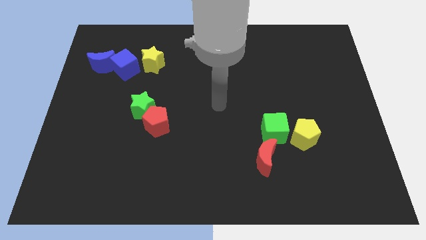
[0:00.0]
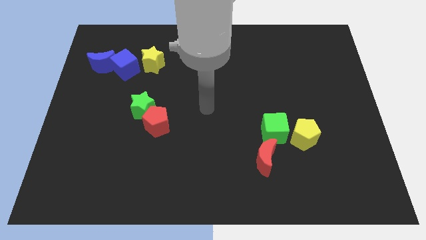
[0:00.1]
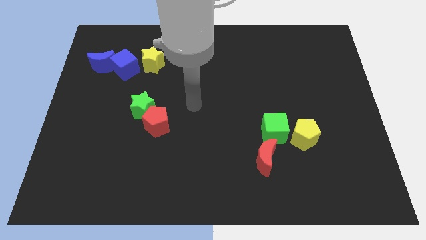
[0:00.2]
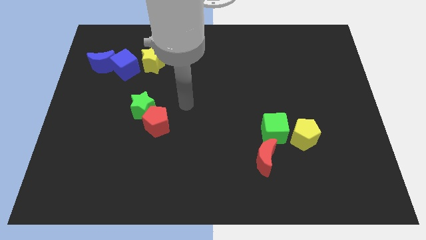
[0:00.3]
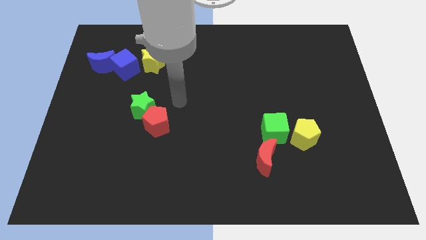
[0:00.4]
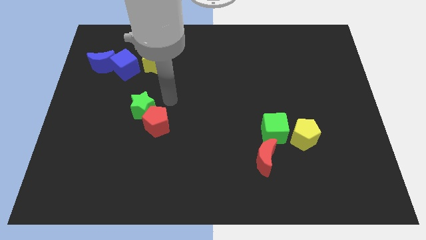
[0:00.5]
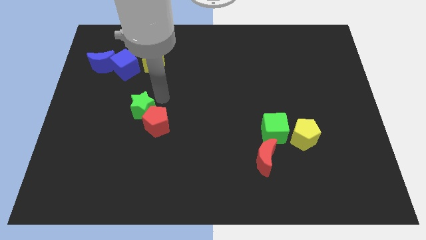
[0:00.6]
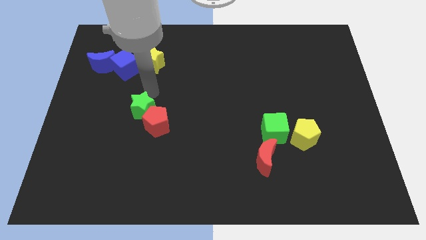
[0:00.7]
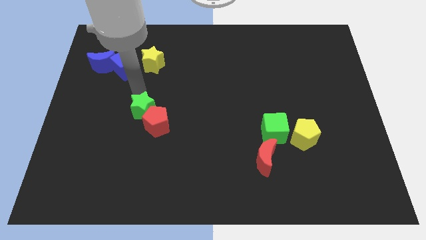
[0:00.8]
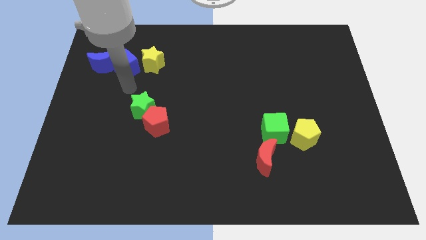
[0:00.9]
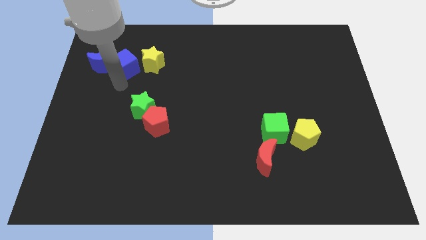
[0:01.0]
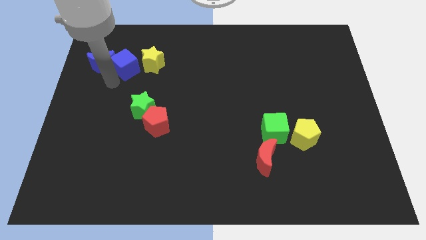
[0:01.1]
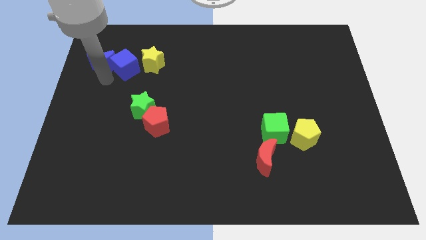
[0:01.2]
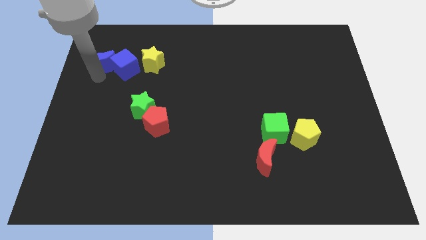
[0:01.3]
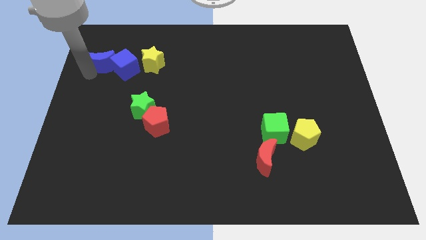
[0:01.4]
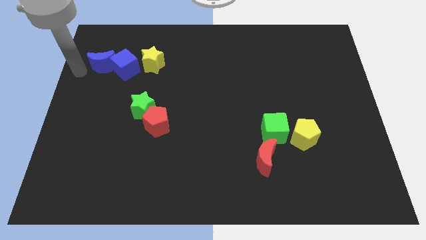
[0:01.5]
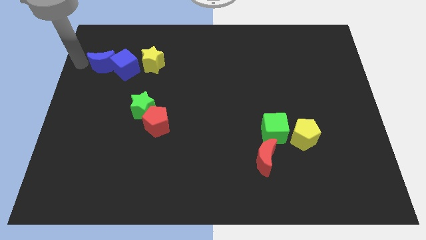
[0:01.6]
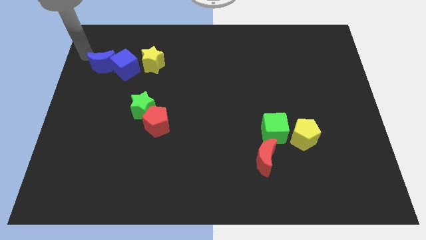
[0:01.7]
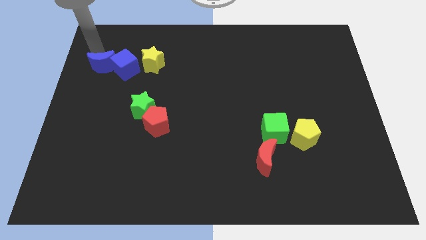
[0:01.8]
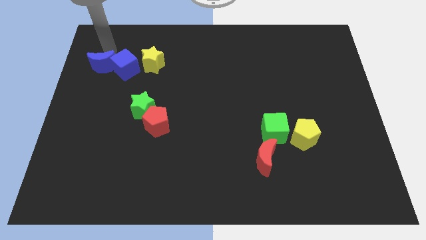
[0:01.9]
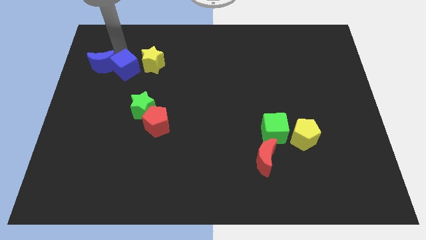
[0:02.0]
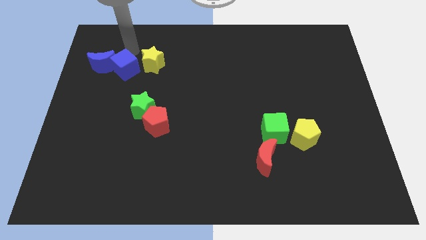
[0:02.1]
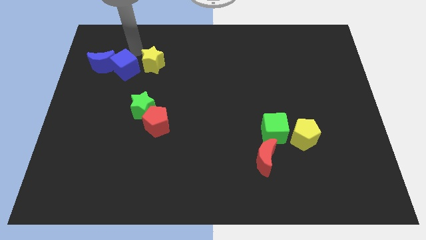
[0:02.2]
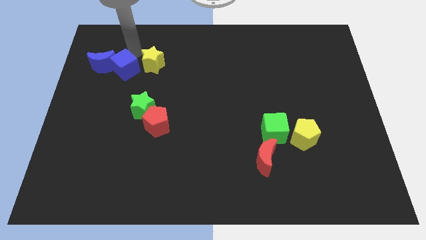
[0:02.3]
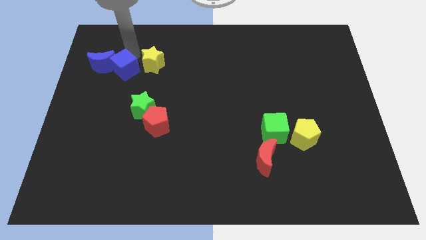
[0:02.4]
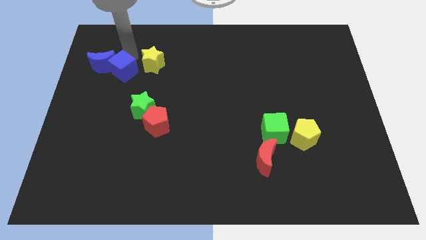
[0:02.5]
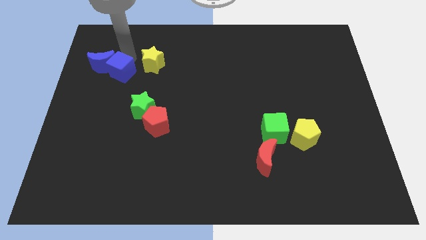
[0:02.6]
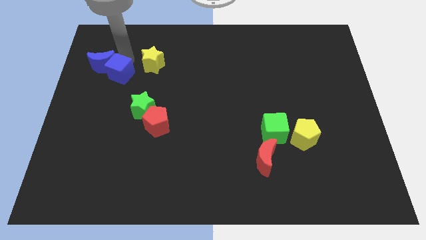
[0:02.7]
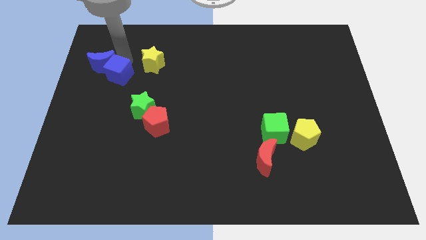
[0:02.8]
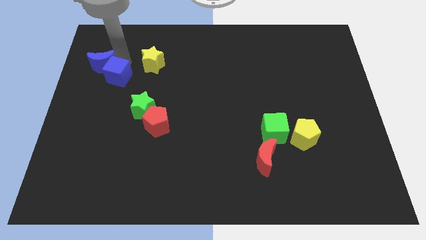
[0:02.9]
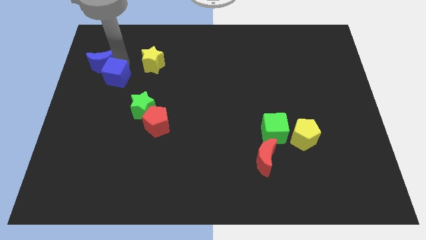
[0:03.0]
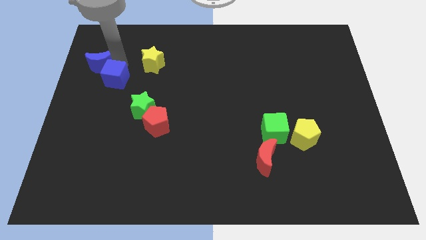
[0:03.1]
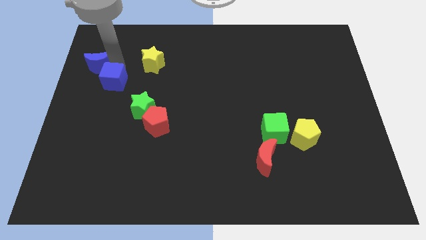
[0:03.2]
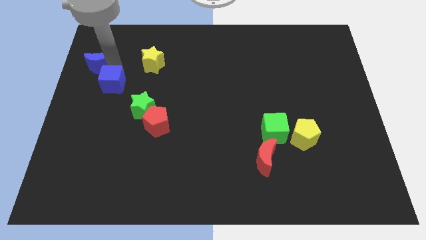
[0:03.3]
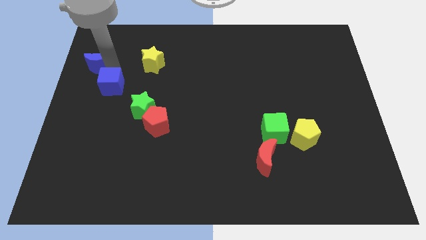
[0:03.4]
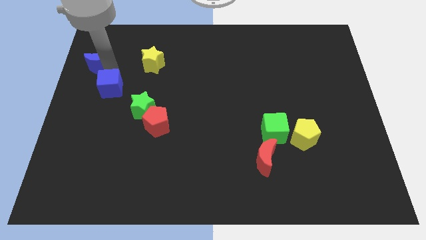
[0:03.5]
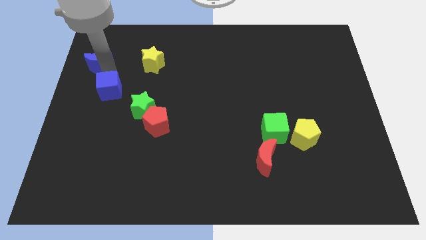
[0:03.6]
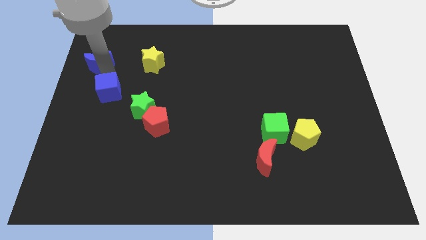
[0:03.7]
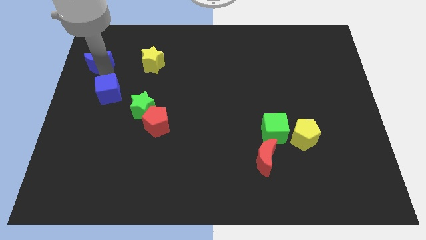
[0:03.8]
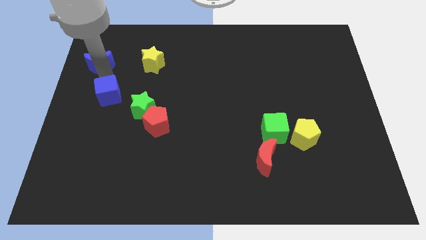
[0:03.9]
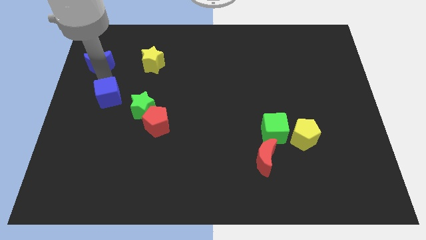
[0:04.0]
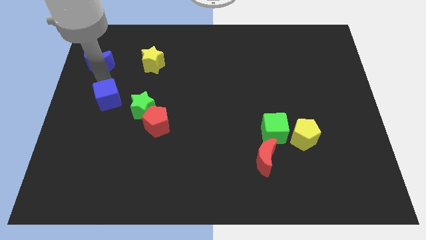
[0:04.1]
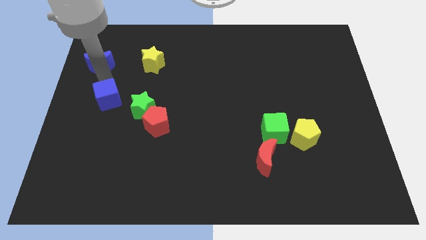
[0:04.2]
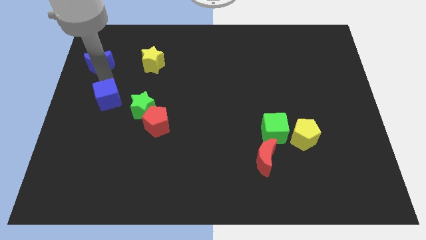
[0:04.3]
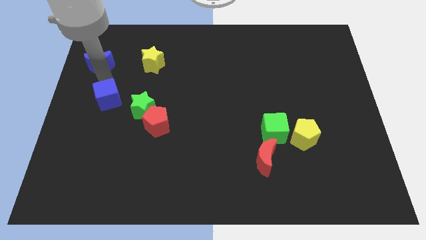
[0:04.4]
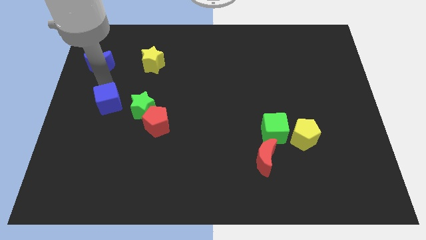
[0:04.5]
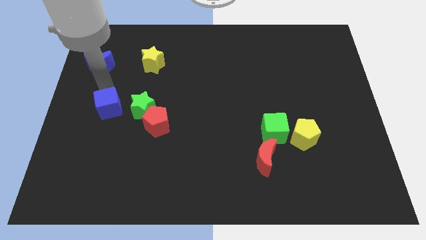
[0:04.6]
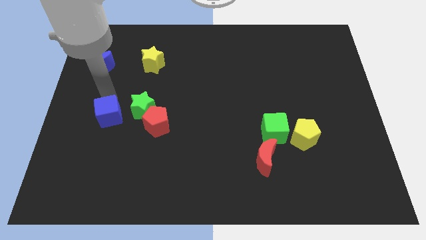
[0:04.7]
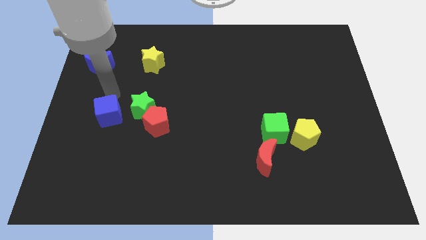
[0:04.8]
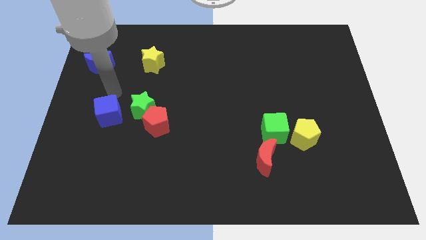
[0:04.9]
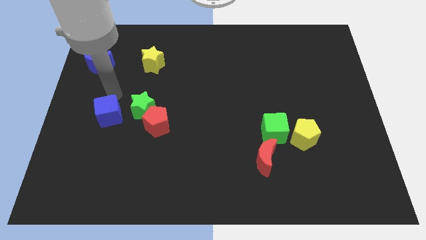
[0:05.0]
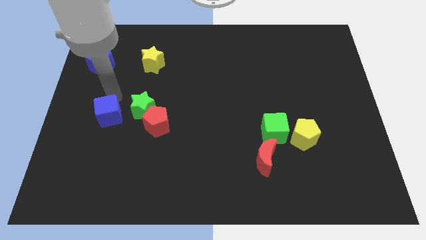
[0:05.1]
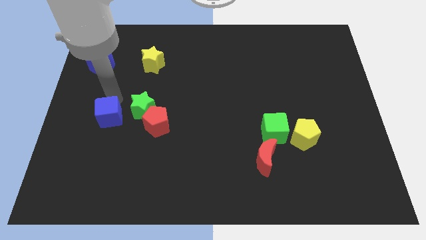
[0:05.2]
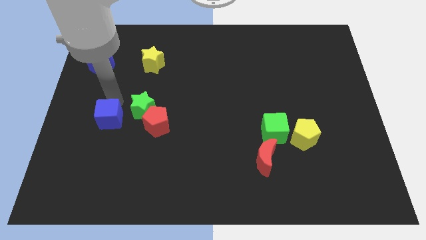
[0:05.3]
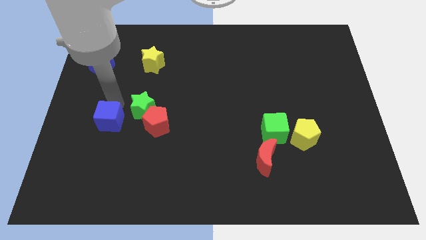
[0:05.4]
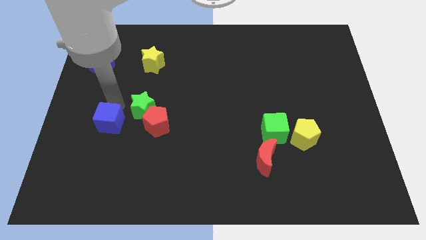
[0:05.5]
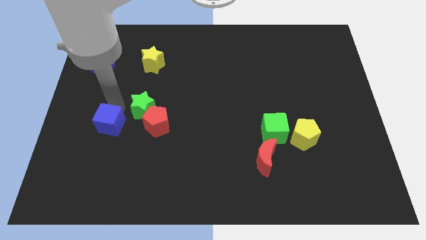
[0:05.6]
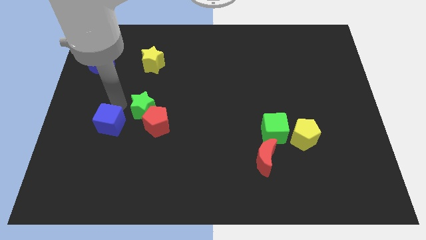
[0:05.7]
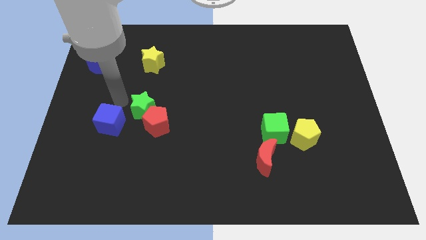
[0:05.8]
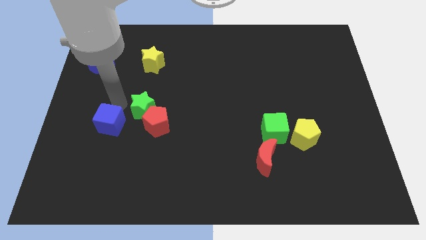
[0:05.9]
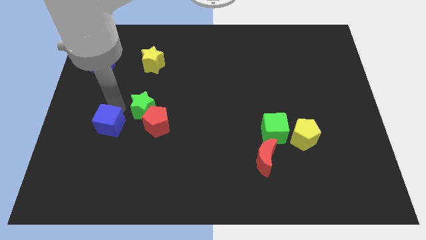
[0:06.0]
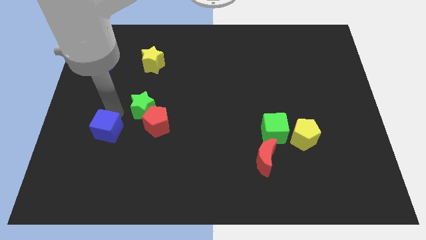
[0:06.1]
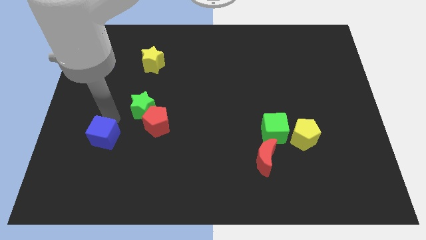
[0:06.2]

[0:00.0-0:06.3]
push the blue cube downwards

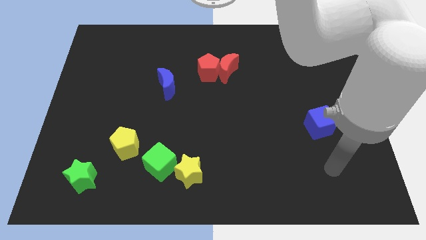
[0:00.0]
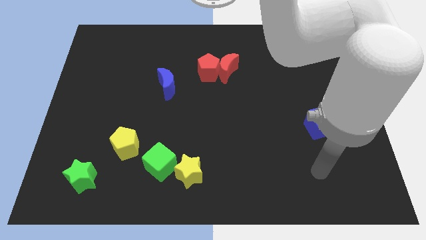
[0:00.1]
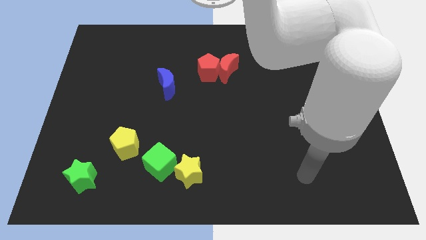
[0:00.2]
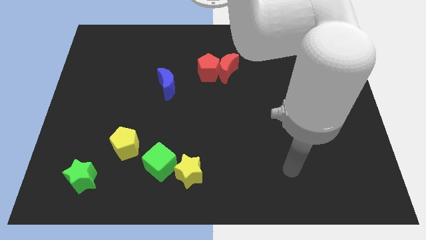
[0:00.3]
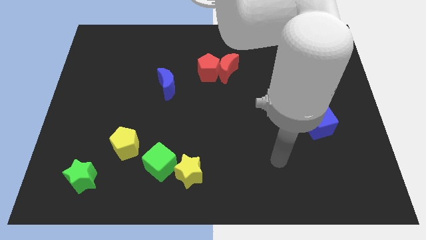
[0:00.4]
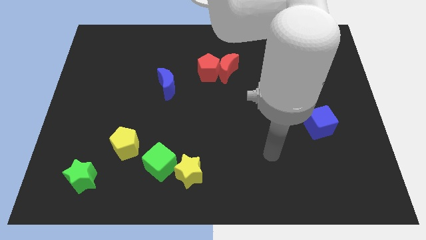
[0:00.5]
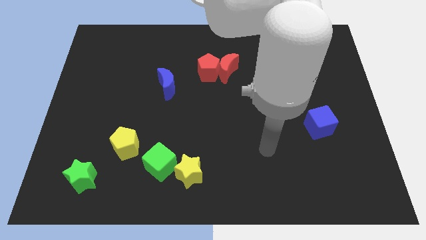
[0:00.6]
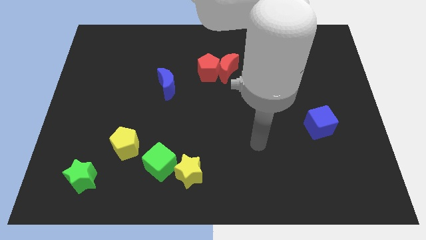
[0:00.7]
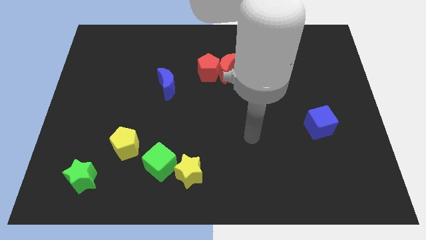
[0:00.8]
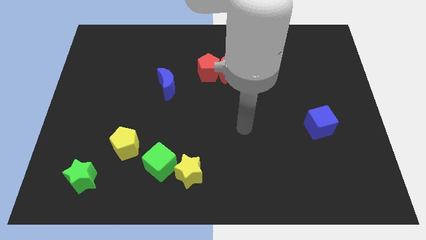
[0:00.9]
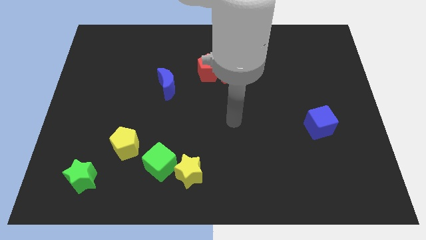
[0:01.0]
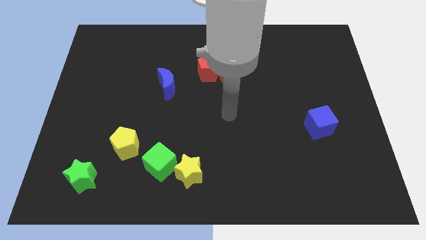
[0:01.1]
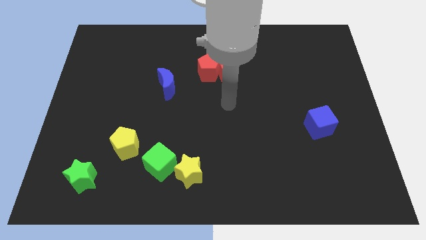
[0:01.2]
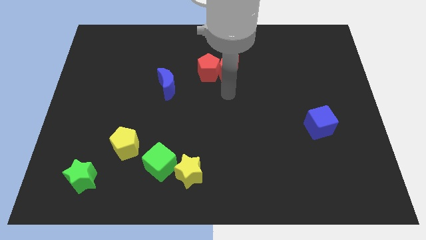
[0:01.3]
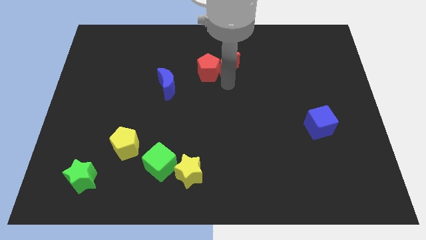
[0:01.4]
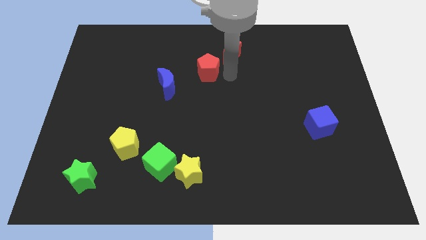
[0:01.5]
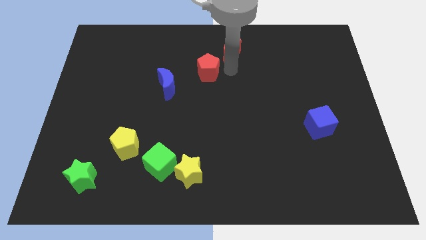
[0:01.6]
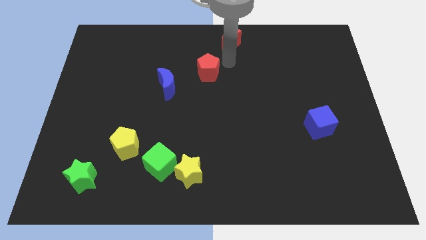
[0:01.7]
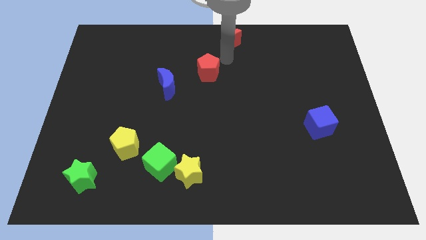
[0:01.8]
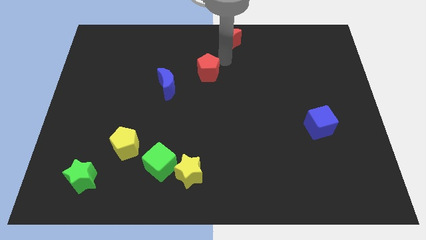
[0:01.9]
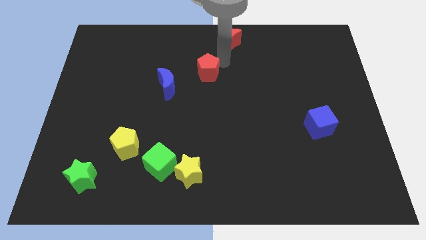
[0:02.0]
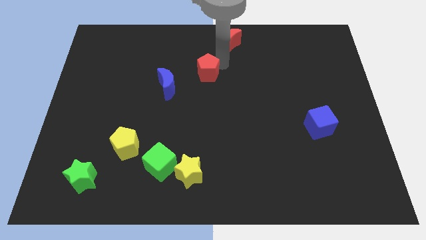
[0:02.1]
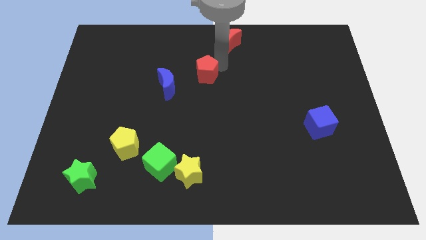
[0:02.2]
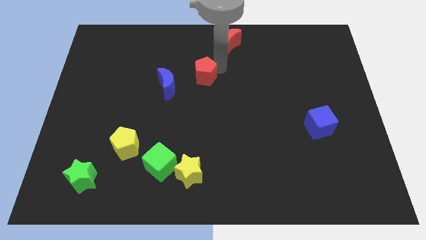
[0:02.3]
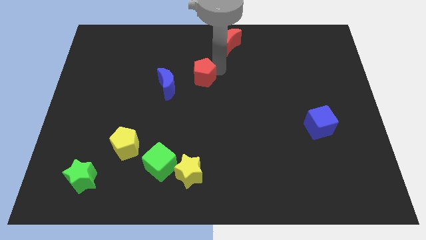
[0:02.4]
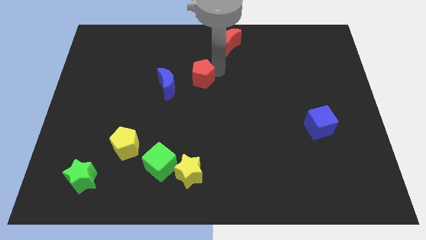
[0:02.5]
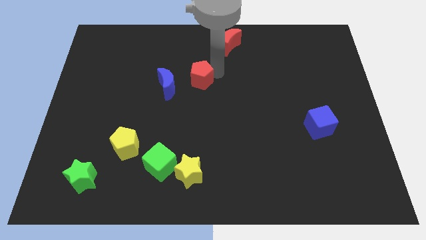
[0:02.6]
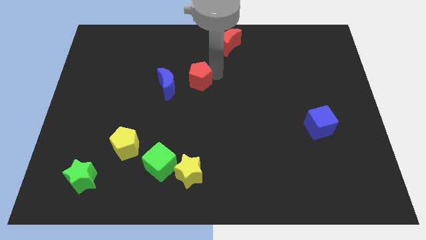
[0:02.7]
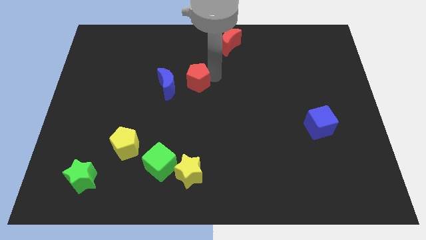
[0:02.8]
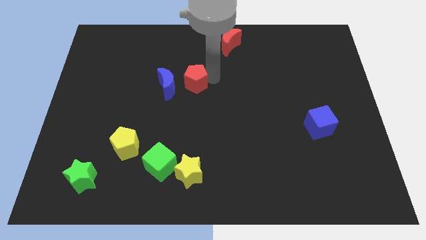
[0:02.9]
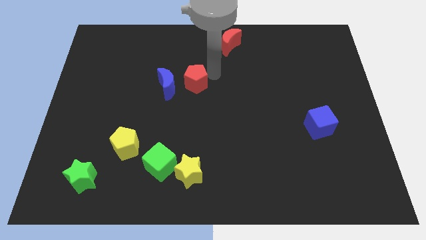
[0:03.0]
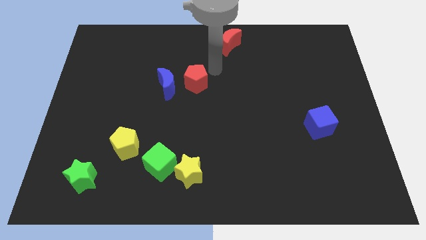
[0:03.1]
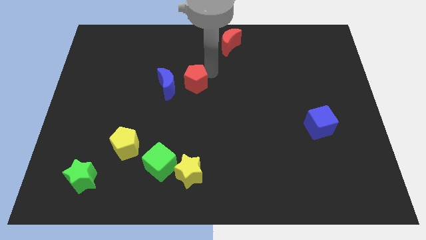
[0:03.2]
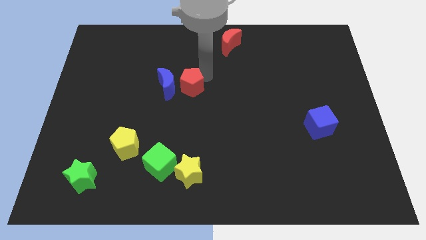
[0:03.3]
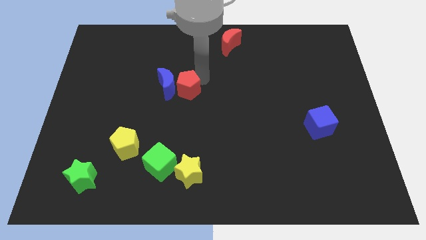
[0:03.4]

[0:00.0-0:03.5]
slide the red pentagon a little bit downwards and left
